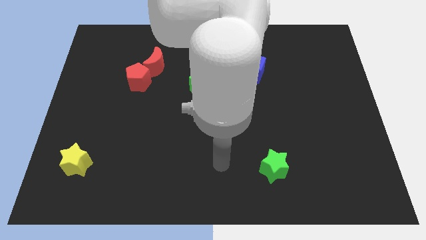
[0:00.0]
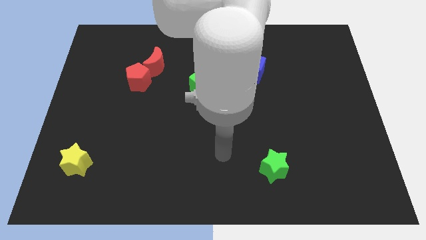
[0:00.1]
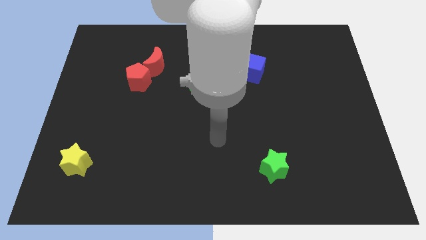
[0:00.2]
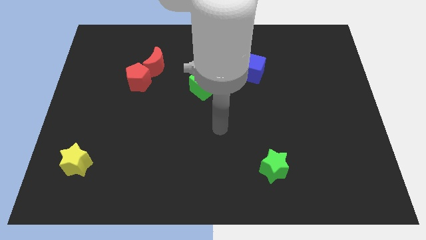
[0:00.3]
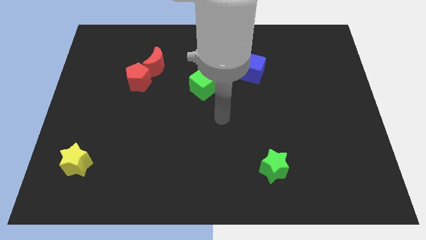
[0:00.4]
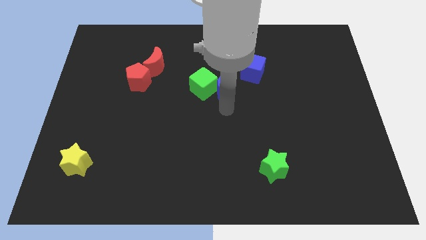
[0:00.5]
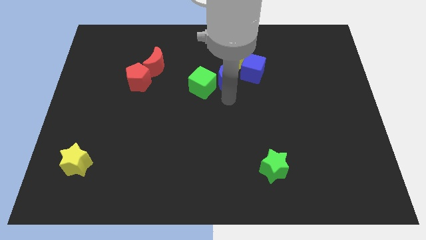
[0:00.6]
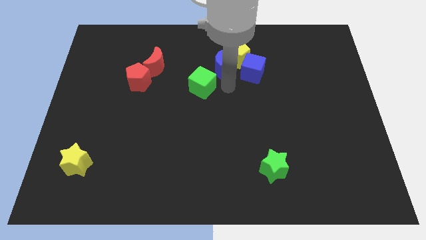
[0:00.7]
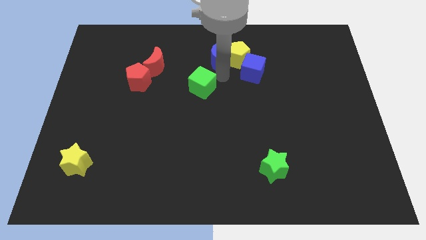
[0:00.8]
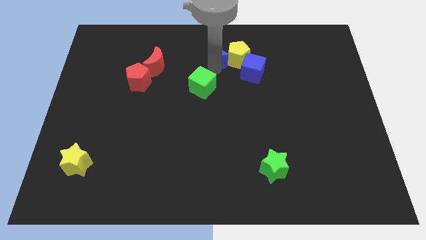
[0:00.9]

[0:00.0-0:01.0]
pull the green cube apart from the blue moon

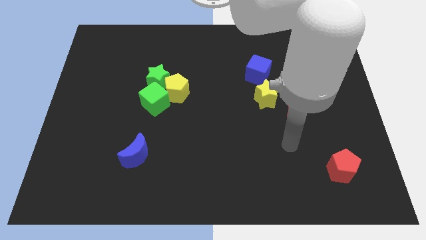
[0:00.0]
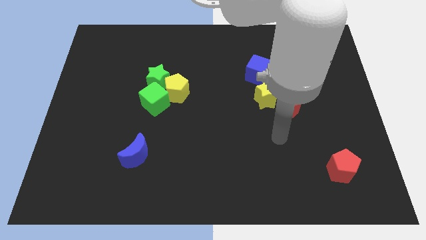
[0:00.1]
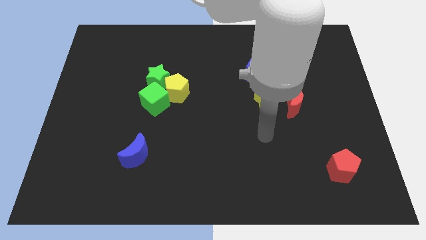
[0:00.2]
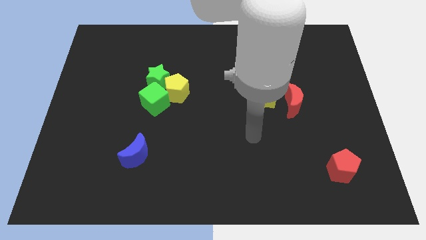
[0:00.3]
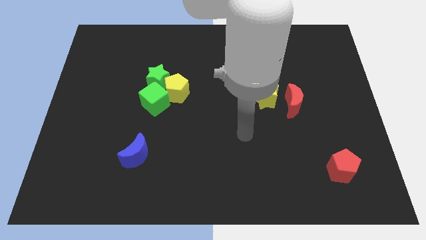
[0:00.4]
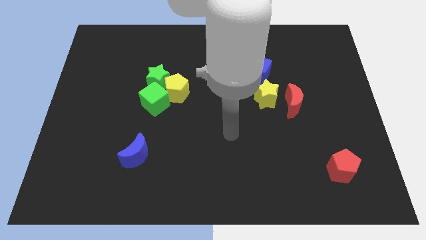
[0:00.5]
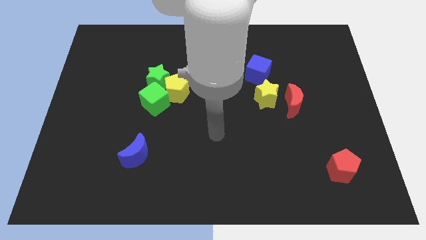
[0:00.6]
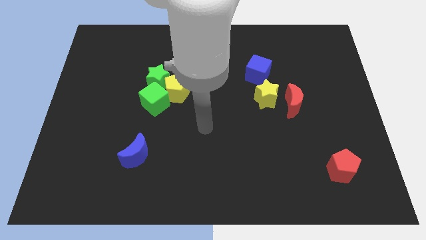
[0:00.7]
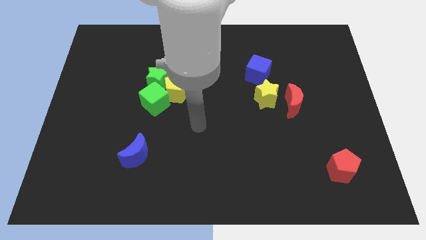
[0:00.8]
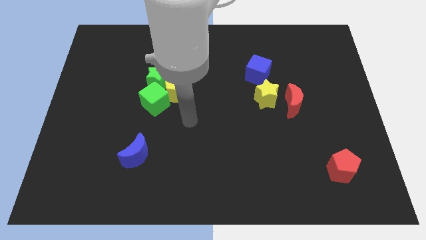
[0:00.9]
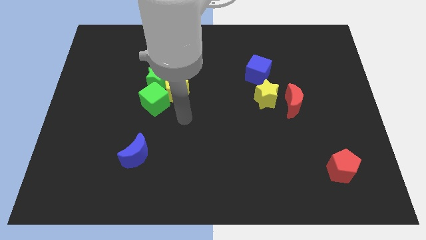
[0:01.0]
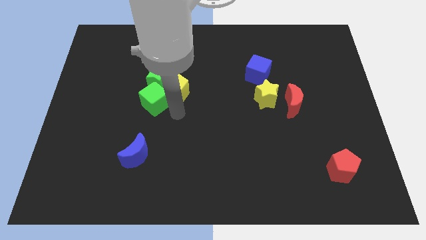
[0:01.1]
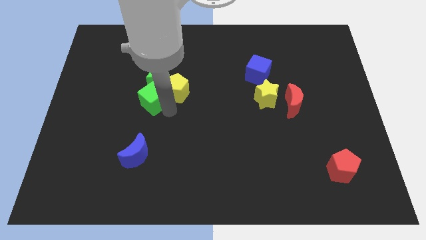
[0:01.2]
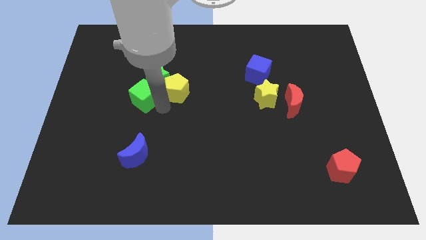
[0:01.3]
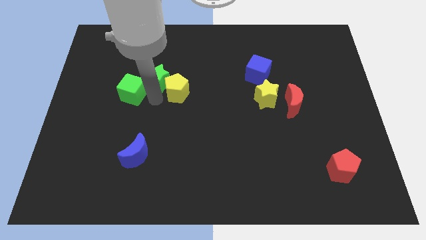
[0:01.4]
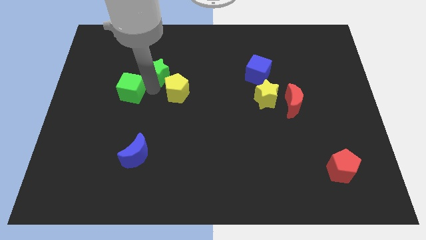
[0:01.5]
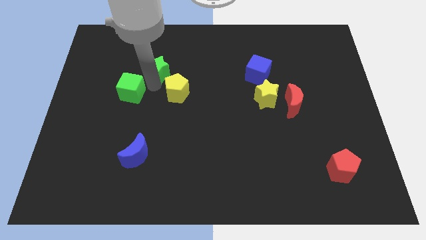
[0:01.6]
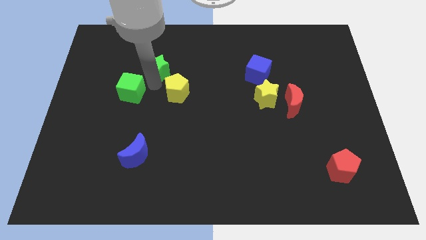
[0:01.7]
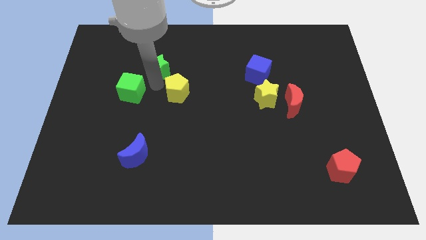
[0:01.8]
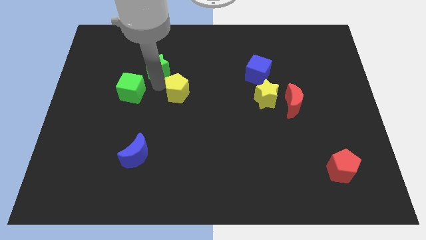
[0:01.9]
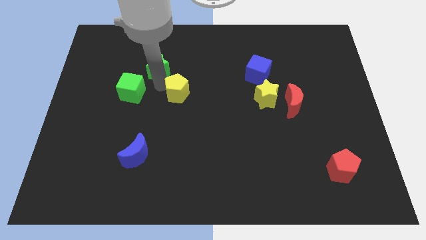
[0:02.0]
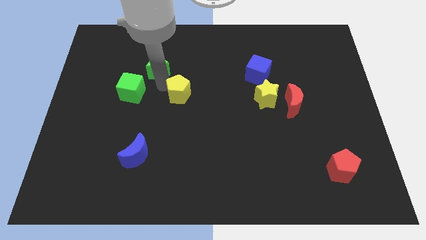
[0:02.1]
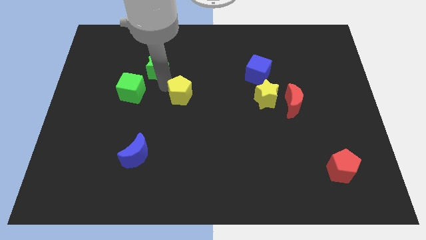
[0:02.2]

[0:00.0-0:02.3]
separate the yellow pentagon from the green cube and green star

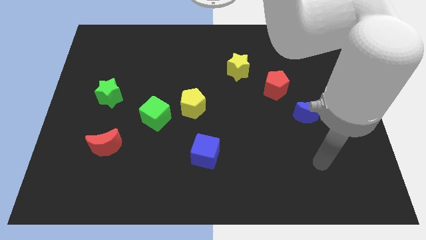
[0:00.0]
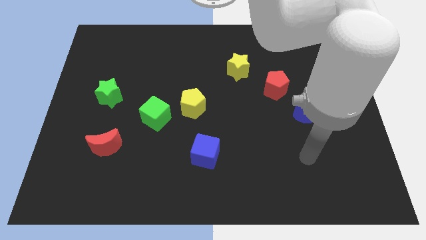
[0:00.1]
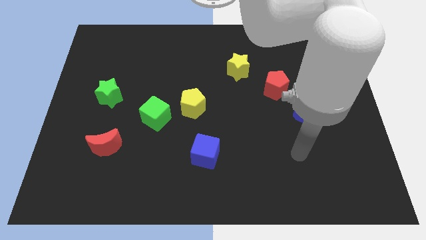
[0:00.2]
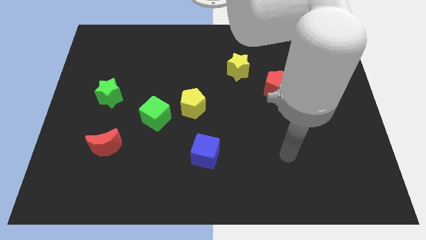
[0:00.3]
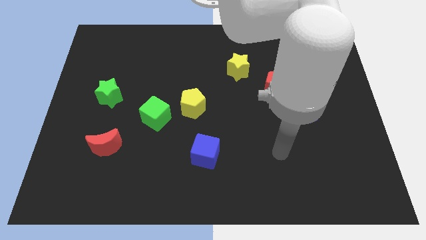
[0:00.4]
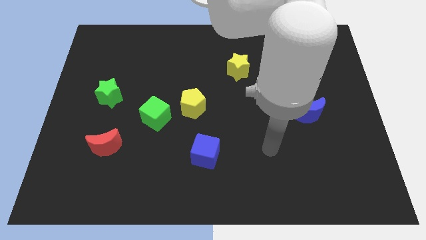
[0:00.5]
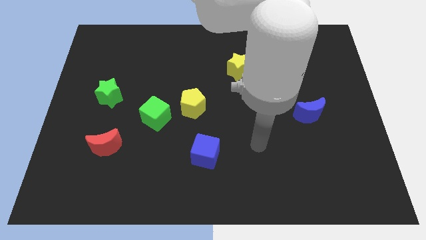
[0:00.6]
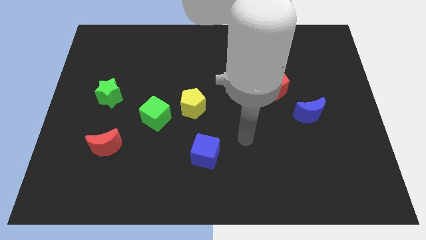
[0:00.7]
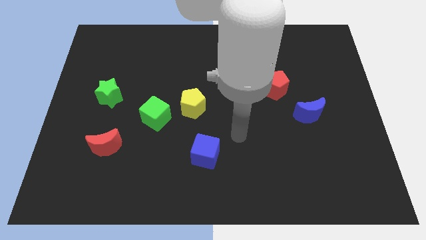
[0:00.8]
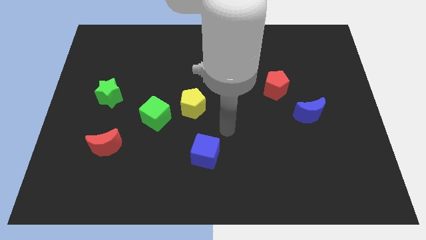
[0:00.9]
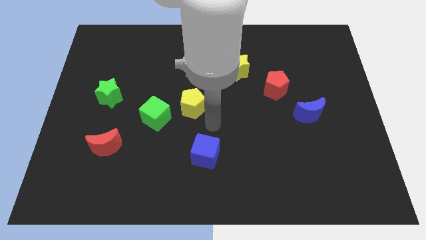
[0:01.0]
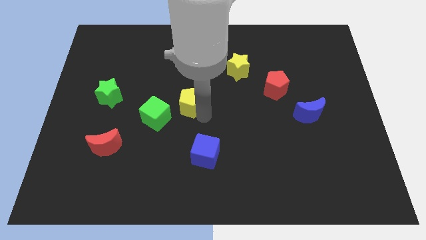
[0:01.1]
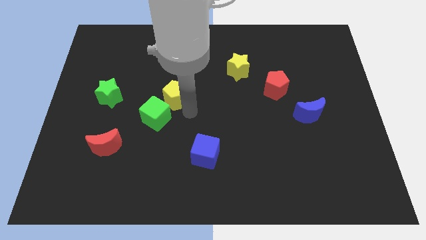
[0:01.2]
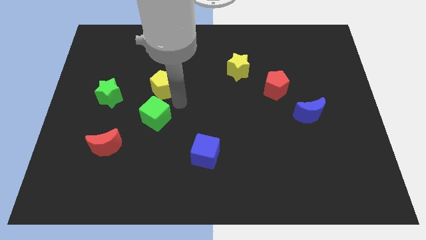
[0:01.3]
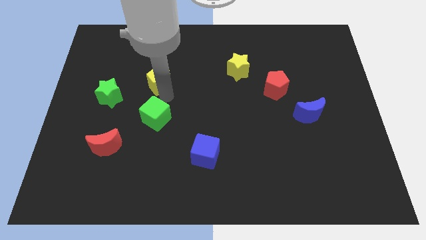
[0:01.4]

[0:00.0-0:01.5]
pull the green cube apart from the yellow pentagon

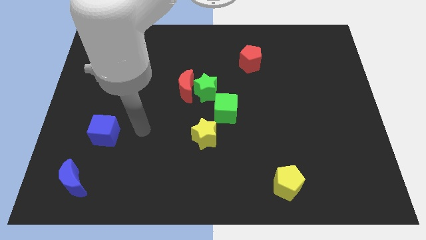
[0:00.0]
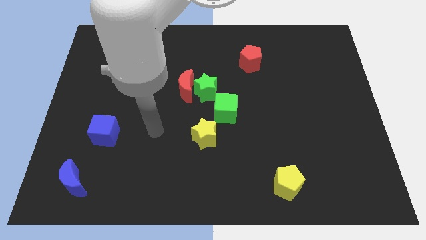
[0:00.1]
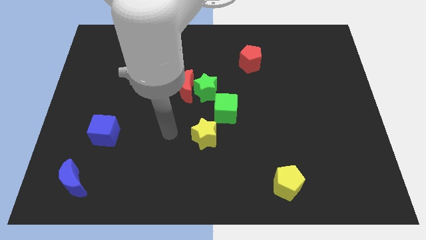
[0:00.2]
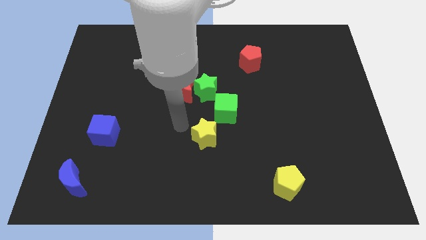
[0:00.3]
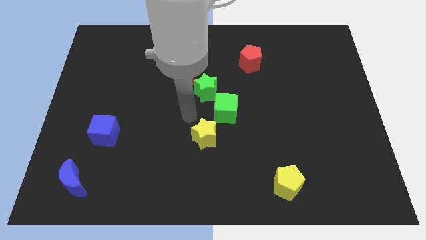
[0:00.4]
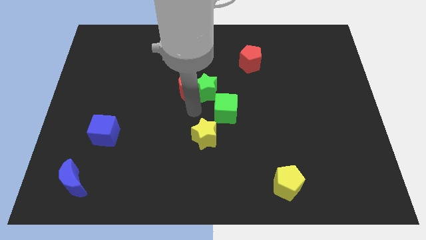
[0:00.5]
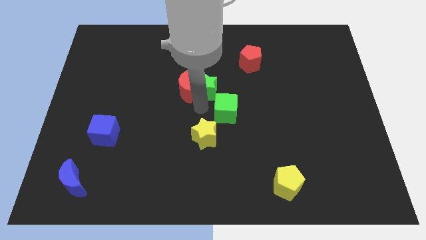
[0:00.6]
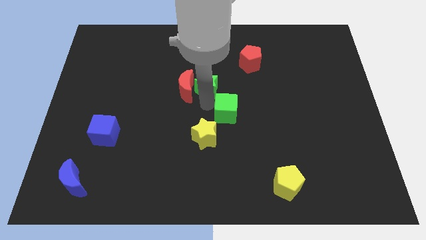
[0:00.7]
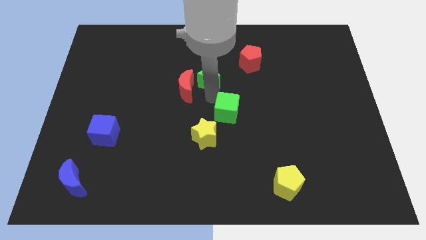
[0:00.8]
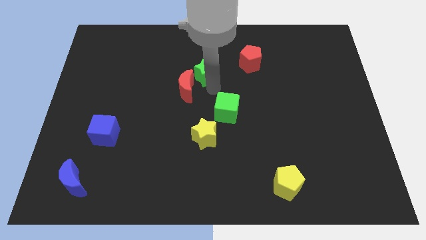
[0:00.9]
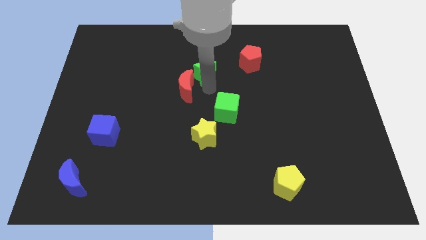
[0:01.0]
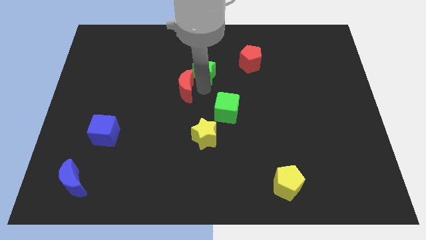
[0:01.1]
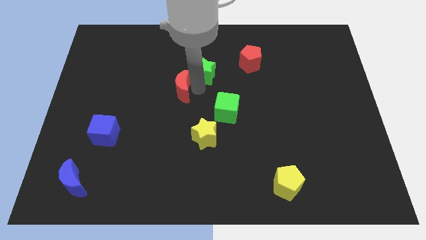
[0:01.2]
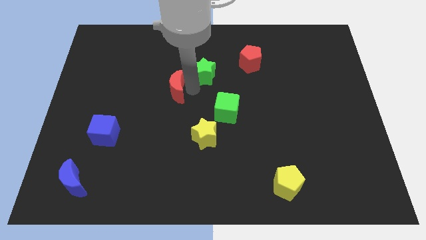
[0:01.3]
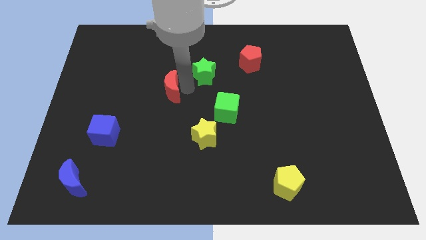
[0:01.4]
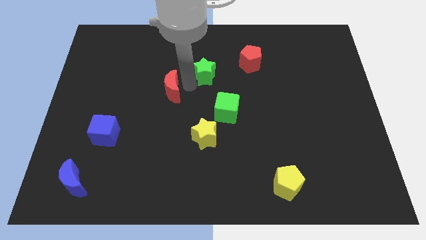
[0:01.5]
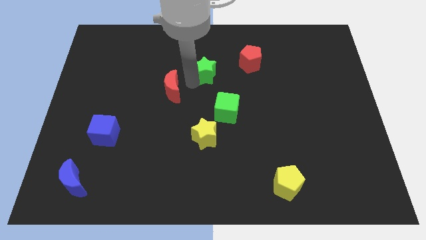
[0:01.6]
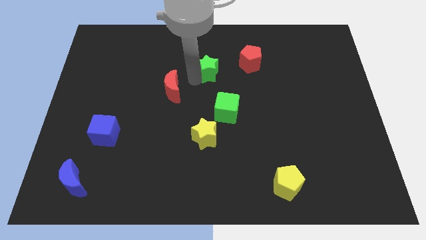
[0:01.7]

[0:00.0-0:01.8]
separate the red moon from the green star

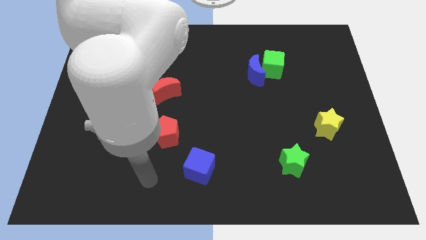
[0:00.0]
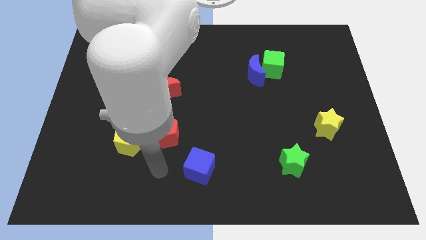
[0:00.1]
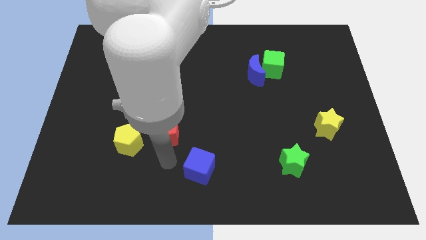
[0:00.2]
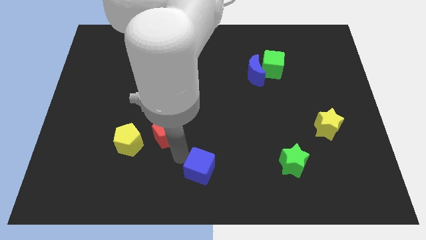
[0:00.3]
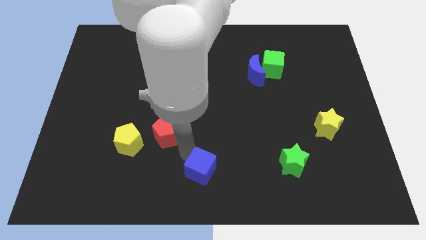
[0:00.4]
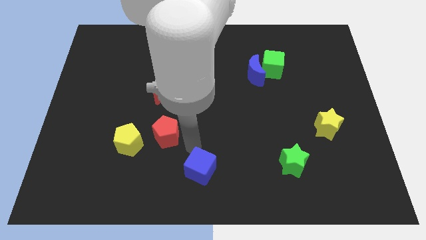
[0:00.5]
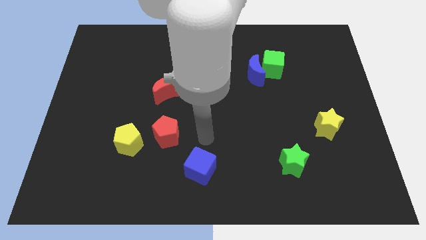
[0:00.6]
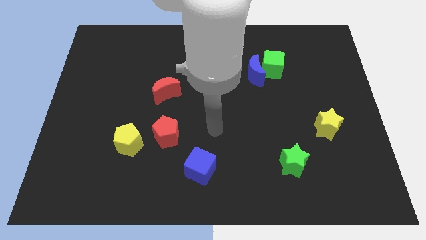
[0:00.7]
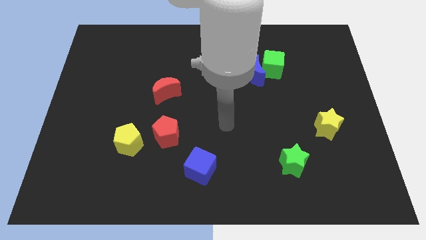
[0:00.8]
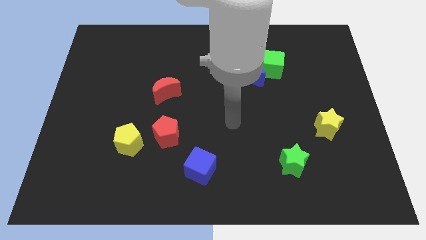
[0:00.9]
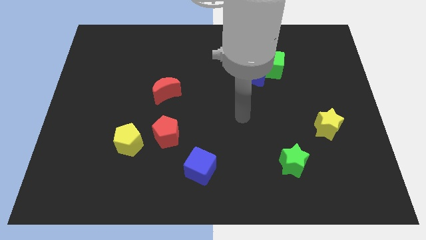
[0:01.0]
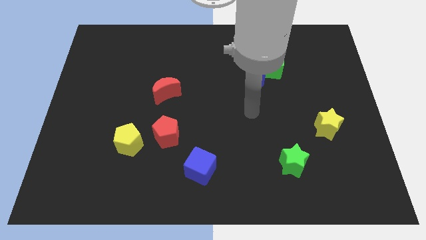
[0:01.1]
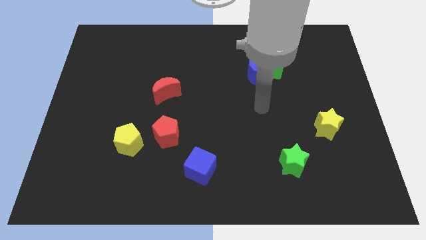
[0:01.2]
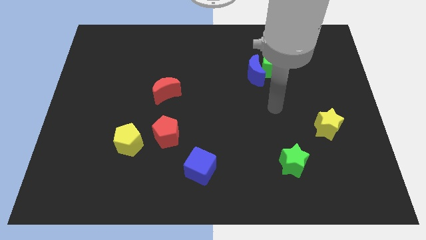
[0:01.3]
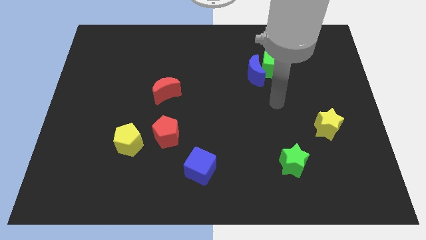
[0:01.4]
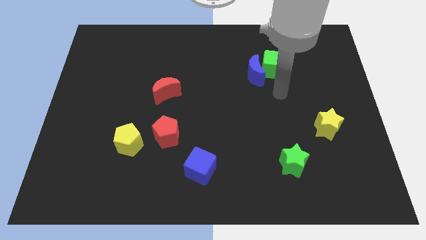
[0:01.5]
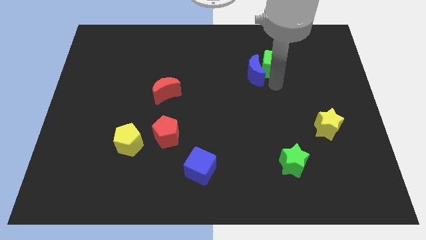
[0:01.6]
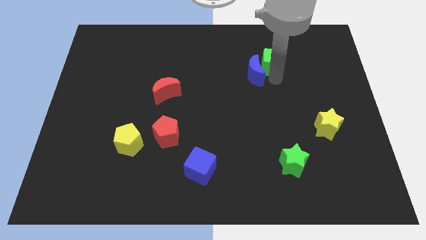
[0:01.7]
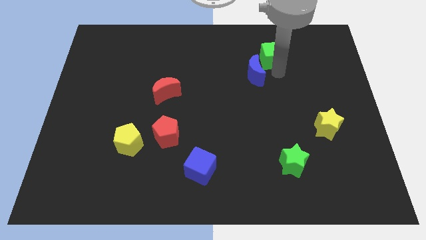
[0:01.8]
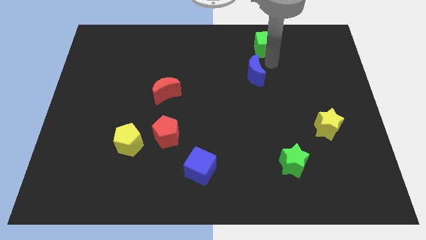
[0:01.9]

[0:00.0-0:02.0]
separate the blue moon from the green cube

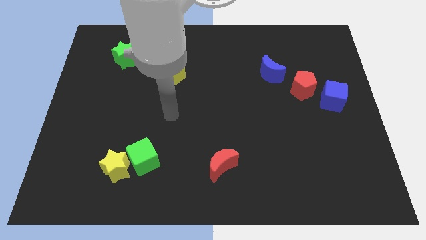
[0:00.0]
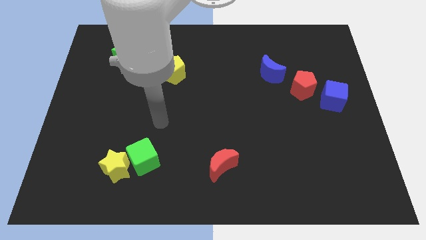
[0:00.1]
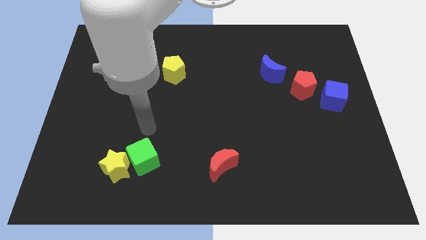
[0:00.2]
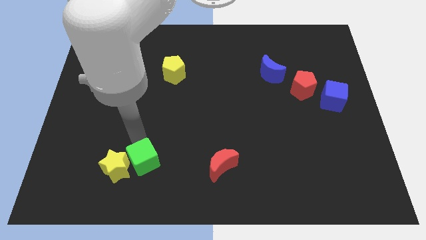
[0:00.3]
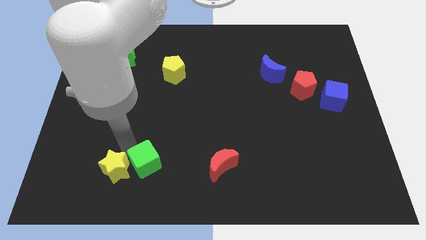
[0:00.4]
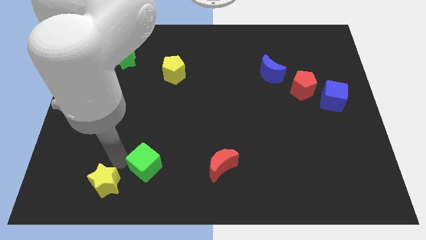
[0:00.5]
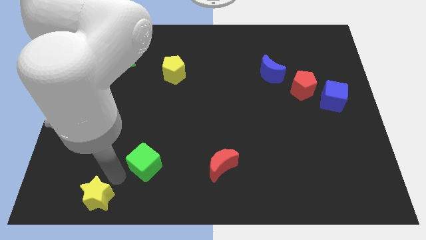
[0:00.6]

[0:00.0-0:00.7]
separate the green cube from the yellow star
